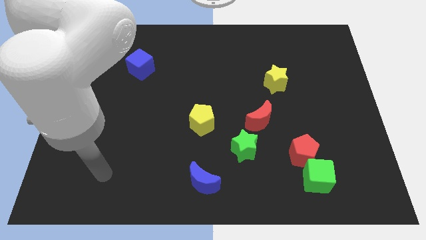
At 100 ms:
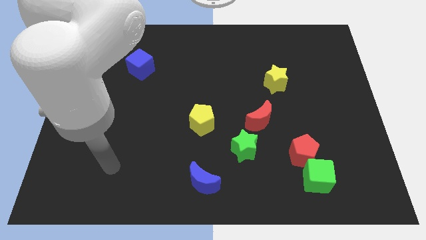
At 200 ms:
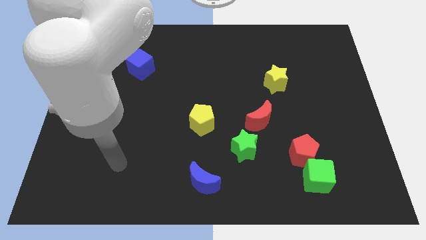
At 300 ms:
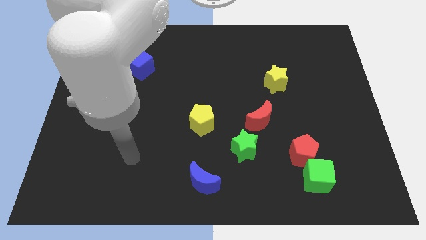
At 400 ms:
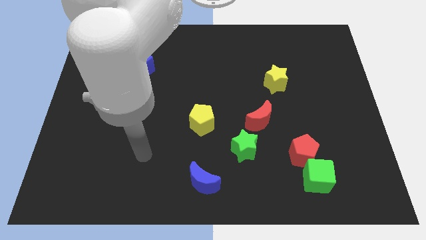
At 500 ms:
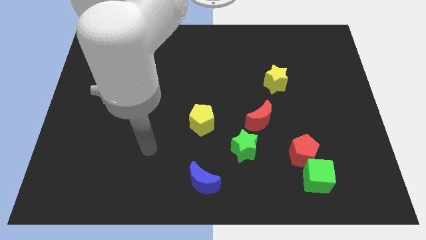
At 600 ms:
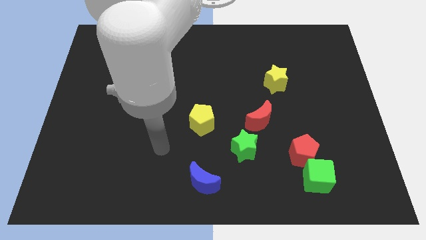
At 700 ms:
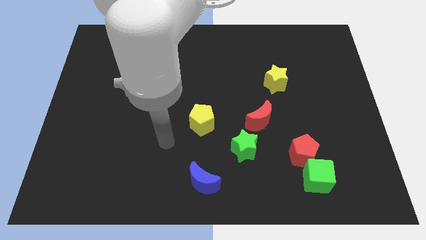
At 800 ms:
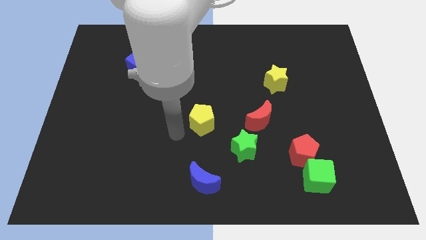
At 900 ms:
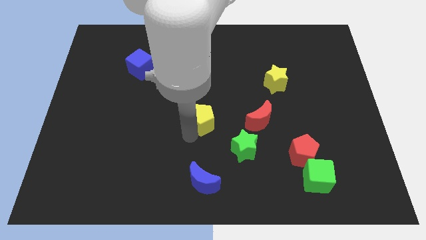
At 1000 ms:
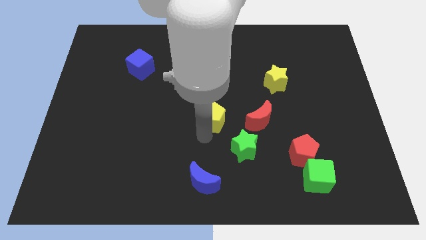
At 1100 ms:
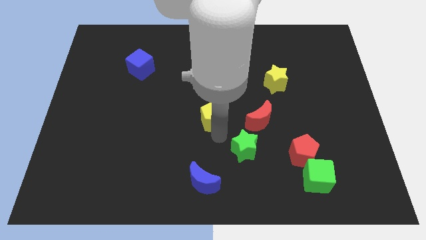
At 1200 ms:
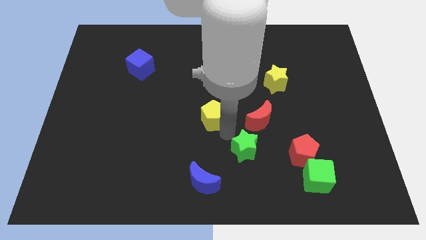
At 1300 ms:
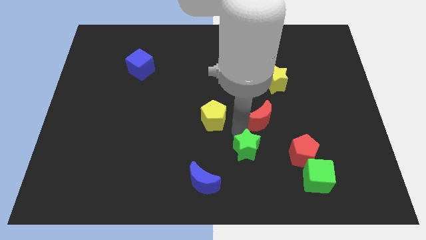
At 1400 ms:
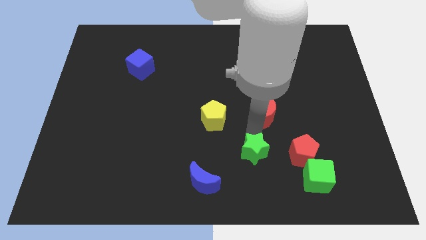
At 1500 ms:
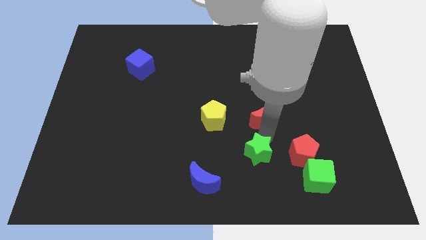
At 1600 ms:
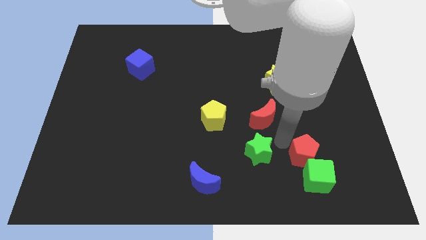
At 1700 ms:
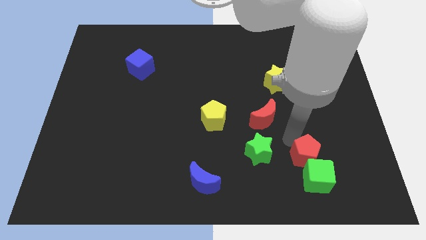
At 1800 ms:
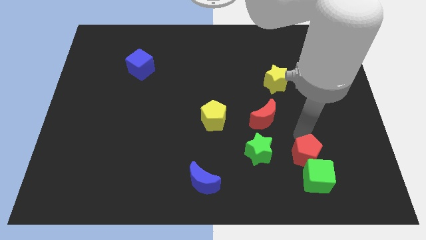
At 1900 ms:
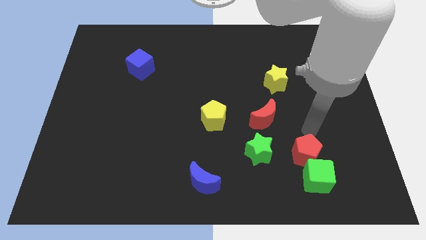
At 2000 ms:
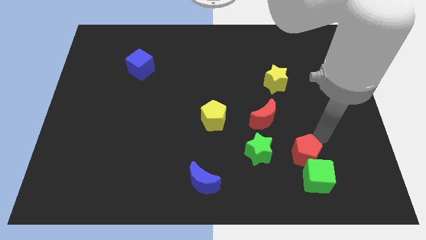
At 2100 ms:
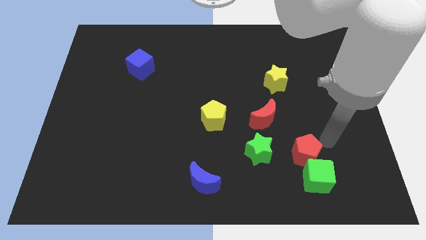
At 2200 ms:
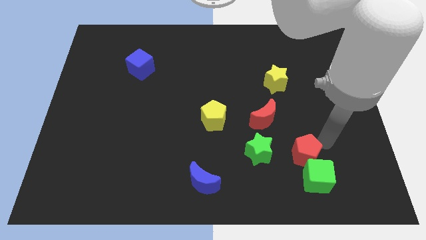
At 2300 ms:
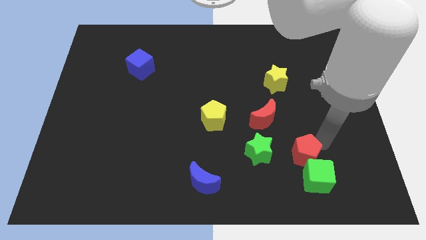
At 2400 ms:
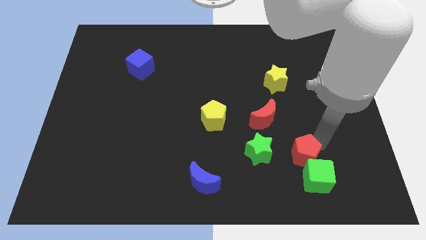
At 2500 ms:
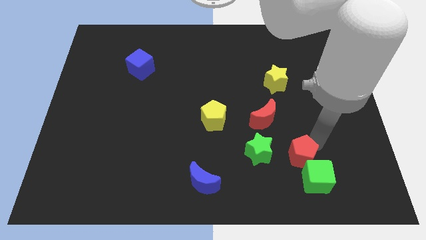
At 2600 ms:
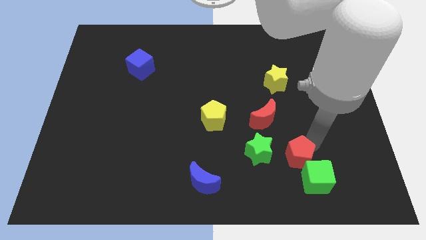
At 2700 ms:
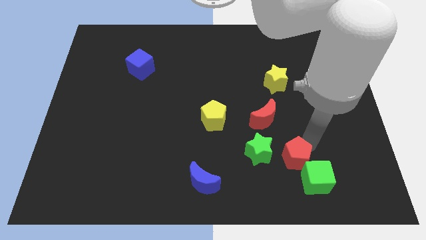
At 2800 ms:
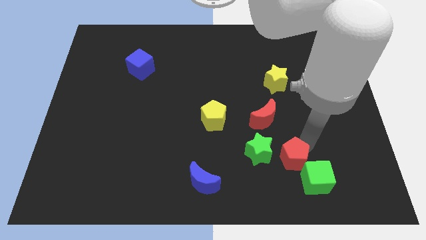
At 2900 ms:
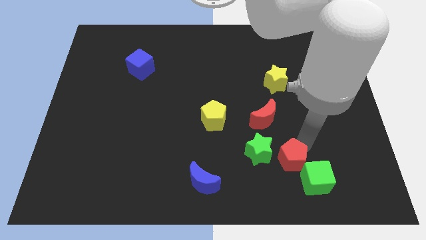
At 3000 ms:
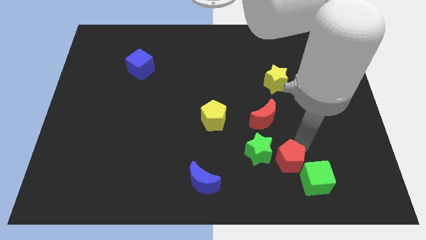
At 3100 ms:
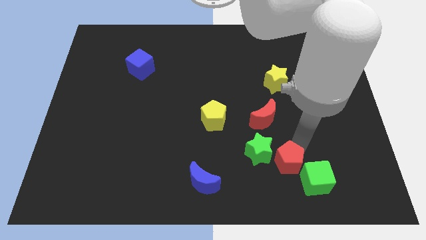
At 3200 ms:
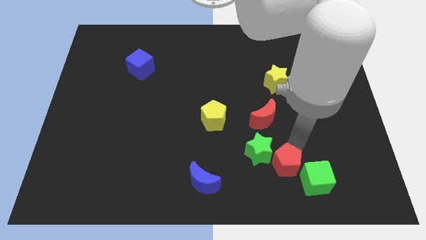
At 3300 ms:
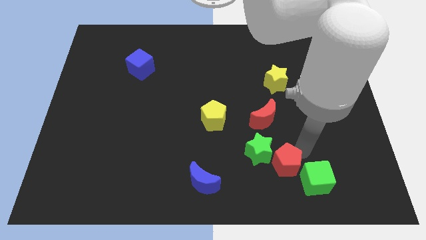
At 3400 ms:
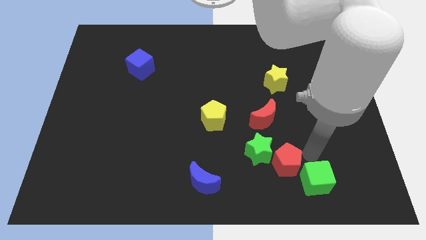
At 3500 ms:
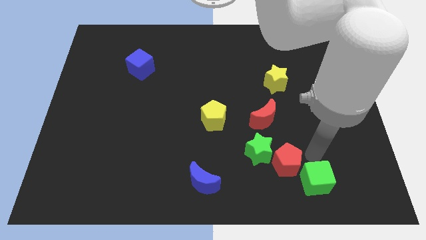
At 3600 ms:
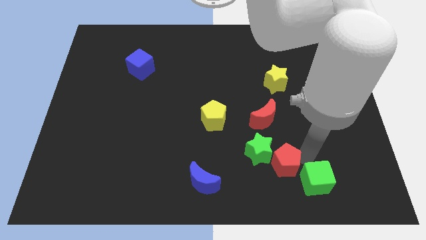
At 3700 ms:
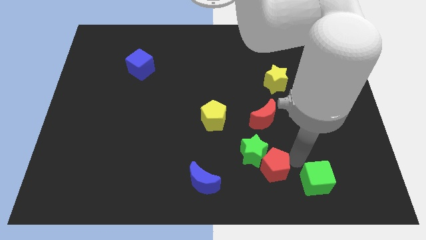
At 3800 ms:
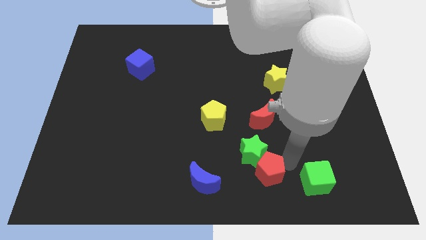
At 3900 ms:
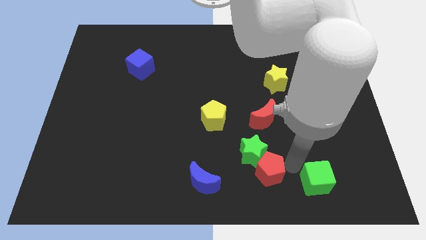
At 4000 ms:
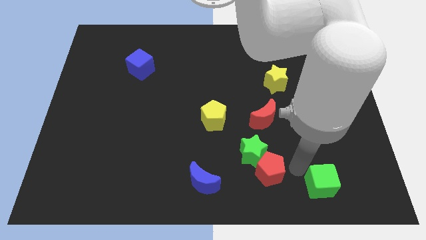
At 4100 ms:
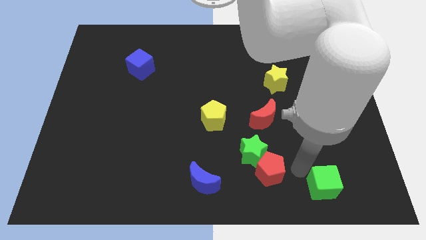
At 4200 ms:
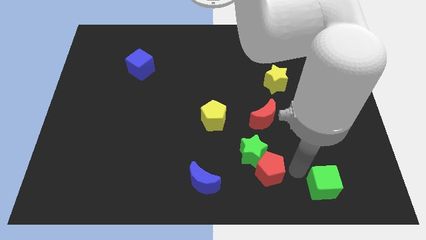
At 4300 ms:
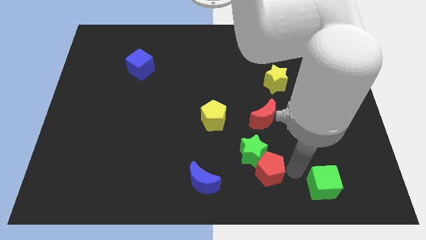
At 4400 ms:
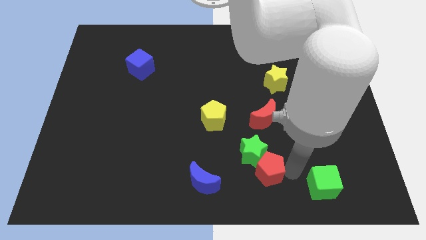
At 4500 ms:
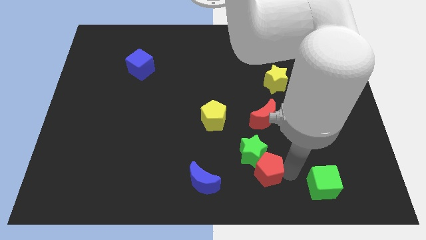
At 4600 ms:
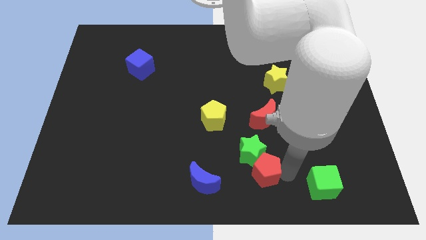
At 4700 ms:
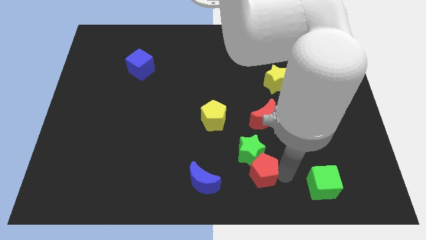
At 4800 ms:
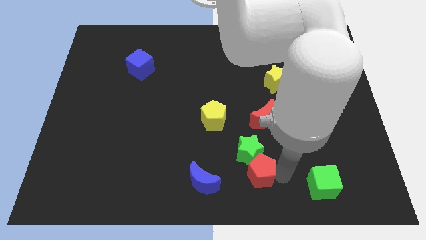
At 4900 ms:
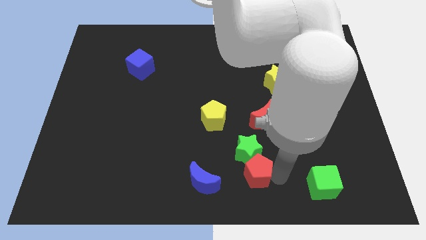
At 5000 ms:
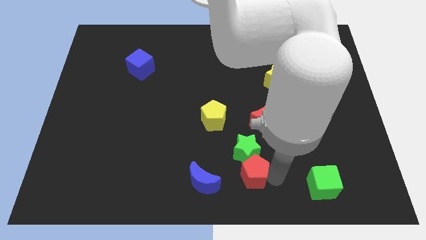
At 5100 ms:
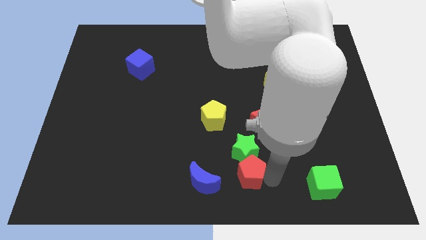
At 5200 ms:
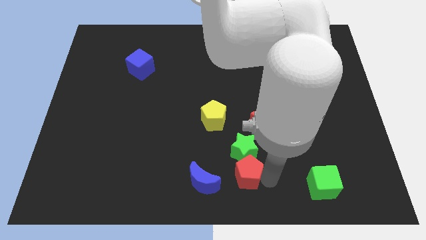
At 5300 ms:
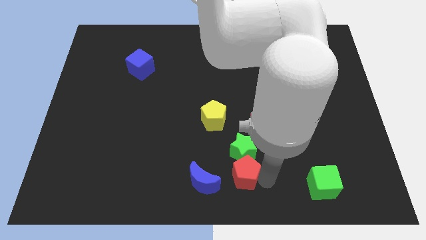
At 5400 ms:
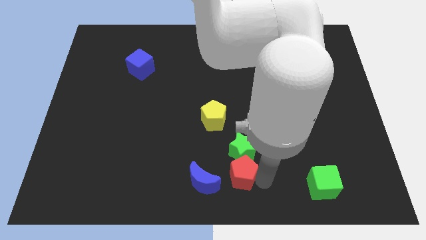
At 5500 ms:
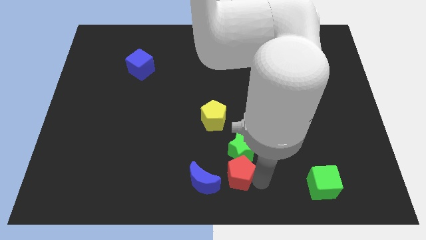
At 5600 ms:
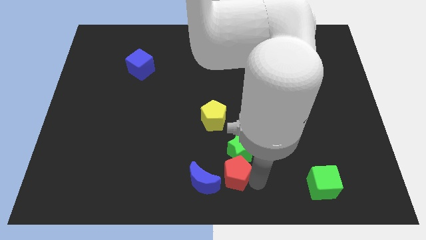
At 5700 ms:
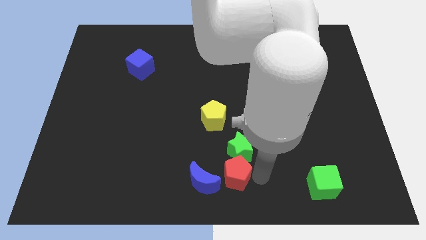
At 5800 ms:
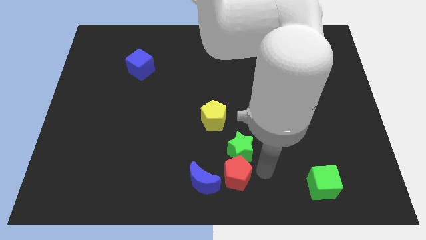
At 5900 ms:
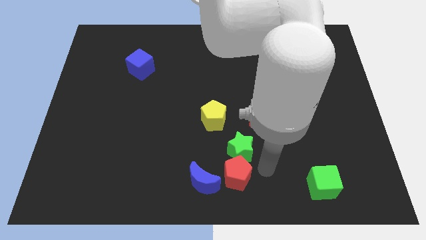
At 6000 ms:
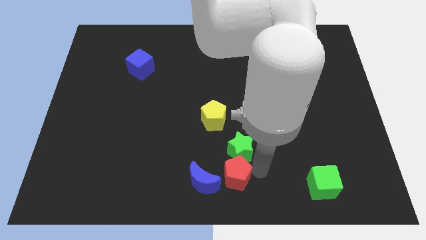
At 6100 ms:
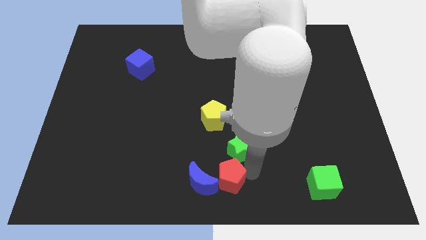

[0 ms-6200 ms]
put the red pentagon next to the blue moon

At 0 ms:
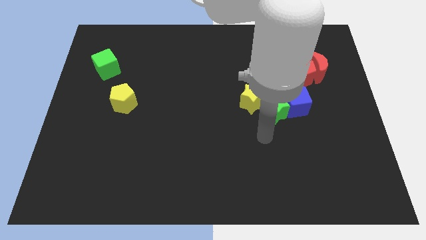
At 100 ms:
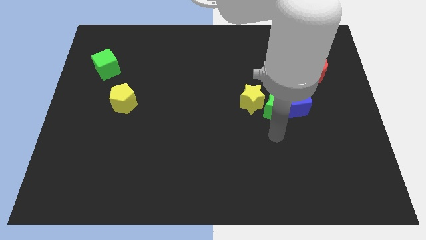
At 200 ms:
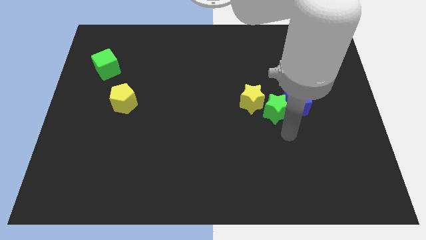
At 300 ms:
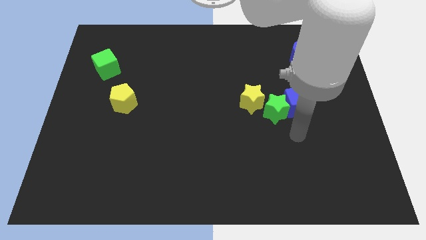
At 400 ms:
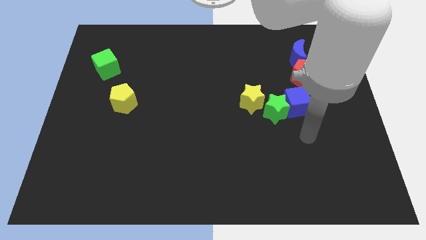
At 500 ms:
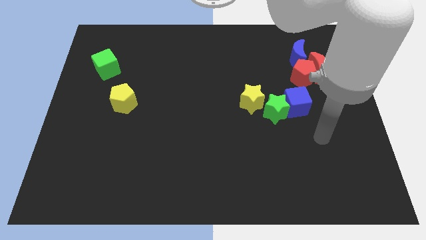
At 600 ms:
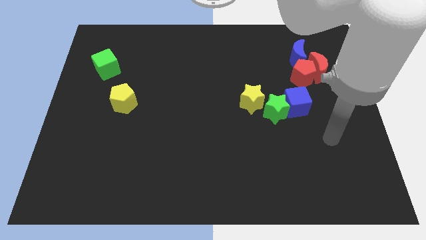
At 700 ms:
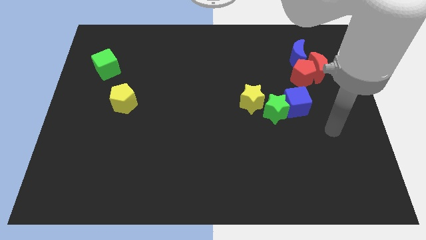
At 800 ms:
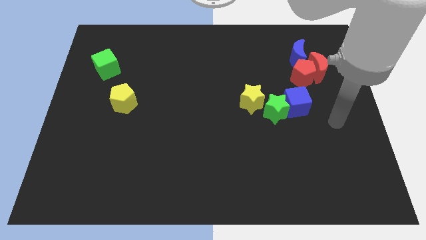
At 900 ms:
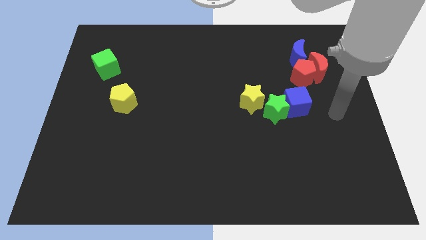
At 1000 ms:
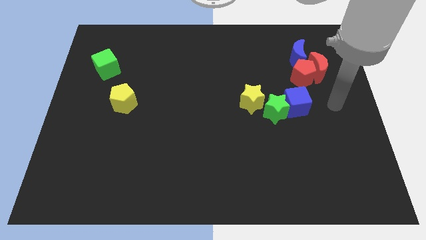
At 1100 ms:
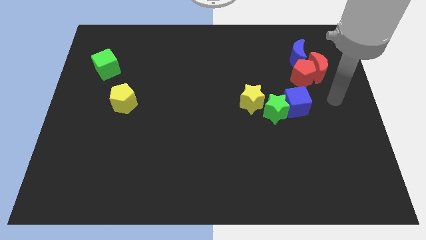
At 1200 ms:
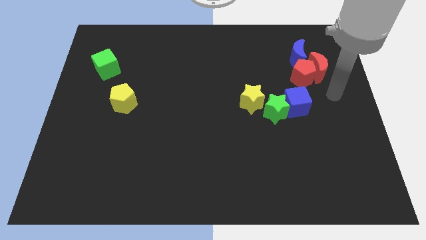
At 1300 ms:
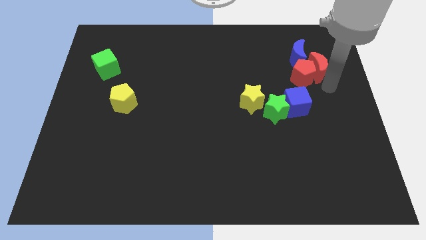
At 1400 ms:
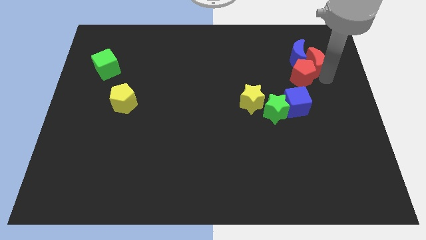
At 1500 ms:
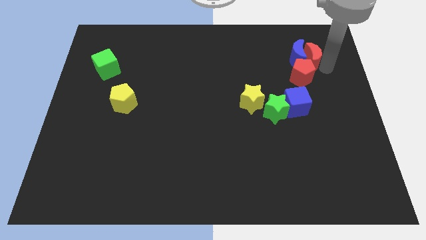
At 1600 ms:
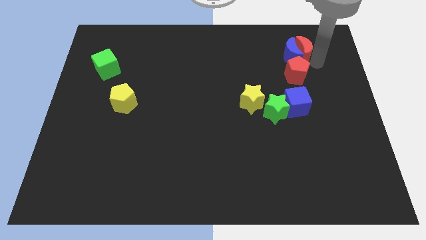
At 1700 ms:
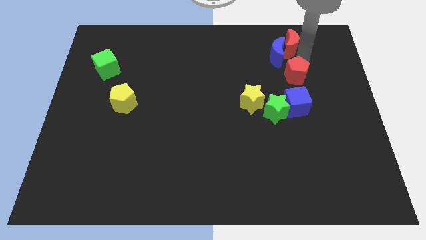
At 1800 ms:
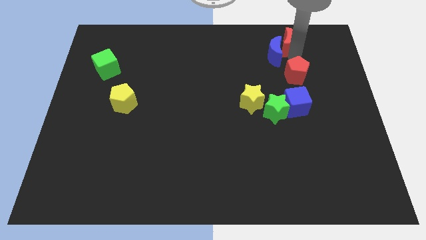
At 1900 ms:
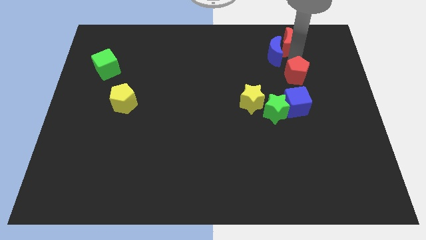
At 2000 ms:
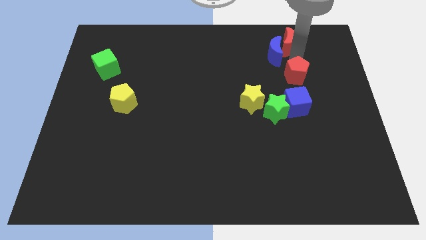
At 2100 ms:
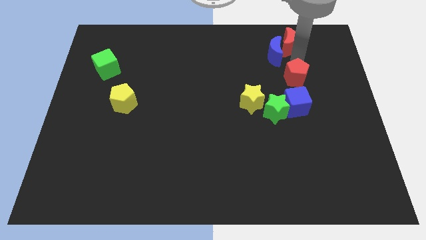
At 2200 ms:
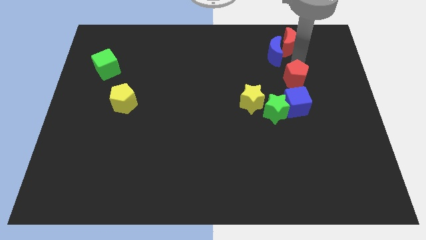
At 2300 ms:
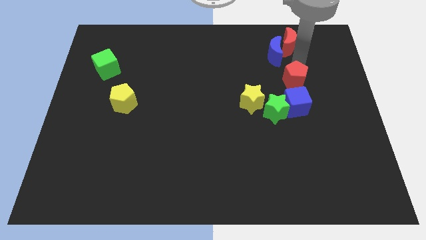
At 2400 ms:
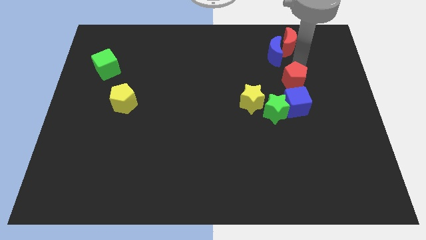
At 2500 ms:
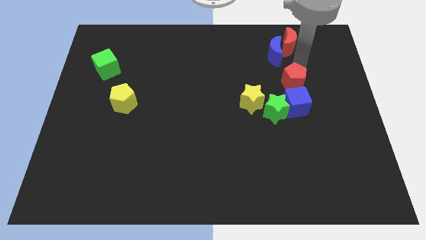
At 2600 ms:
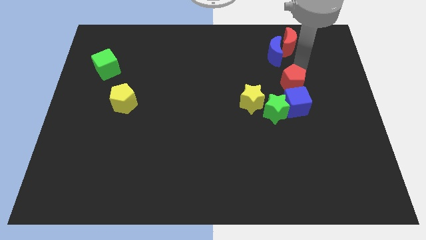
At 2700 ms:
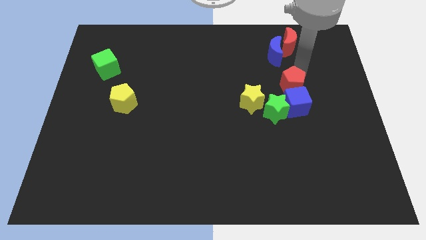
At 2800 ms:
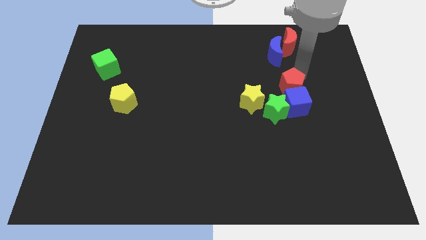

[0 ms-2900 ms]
push the red pentagon to the blue cube
